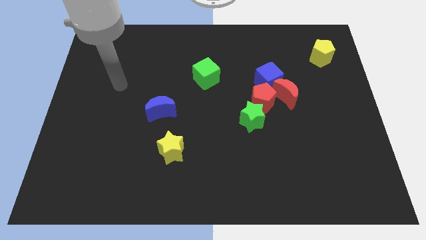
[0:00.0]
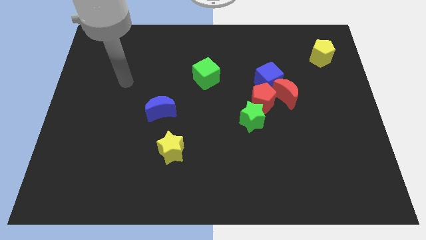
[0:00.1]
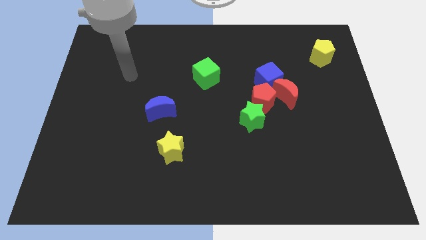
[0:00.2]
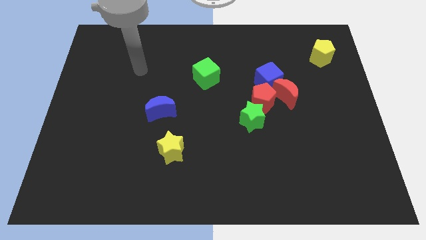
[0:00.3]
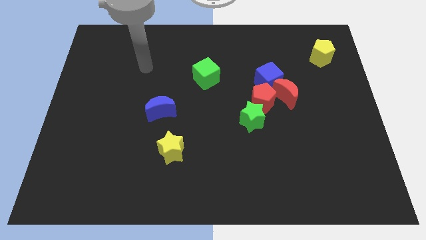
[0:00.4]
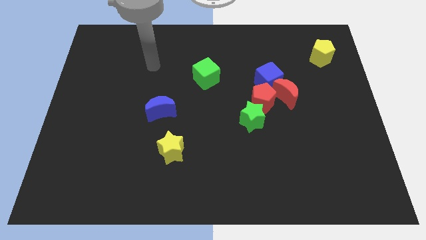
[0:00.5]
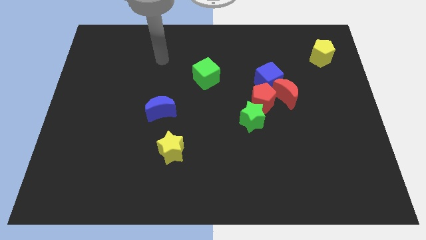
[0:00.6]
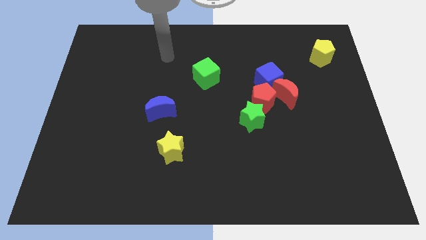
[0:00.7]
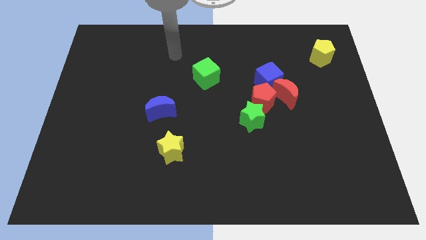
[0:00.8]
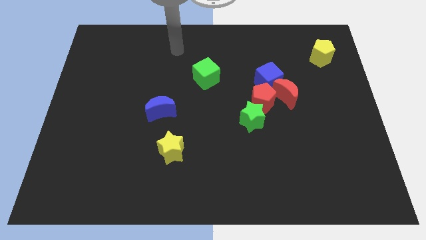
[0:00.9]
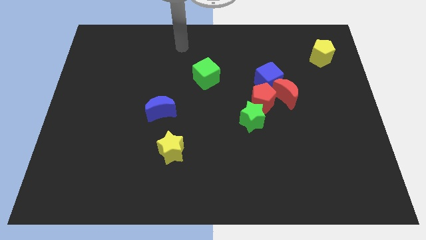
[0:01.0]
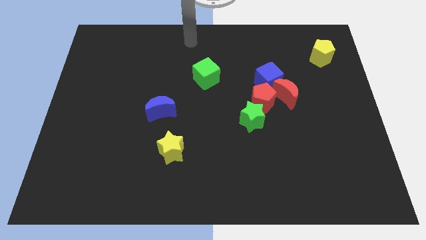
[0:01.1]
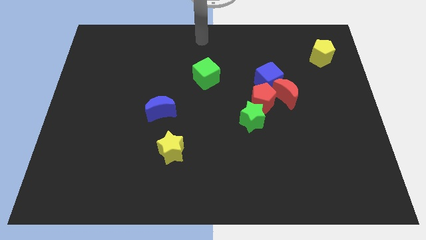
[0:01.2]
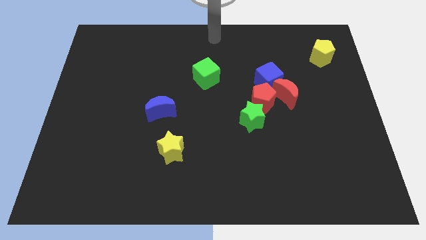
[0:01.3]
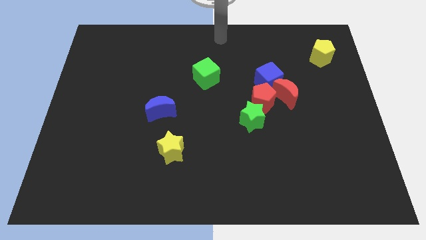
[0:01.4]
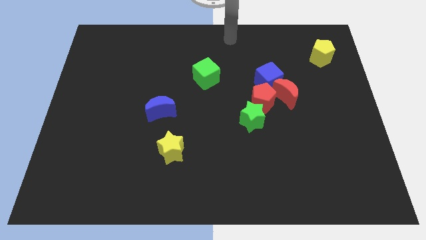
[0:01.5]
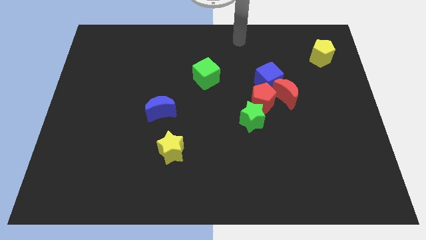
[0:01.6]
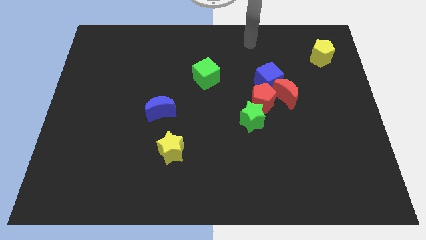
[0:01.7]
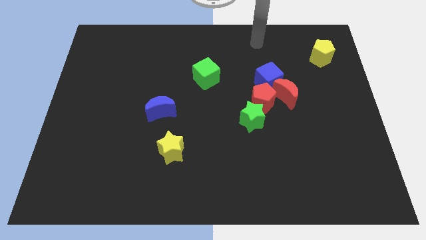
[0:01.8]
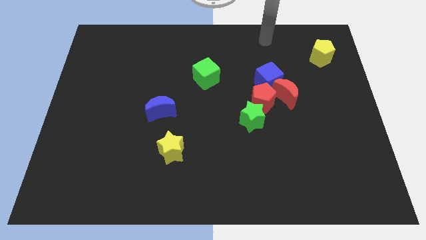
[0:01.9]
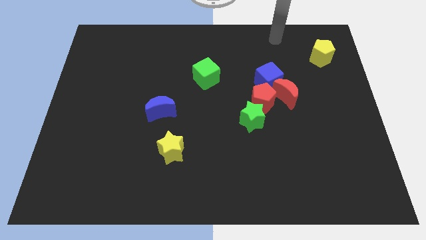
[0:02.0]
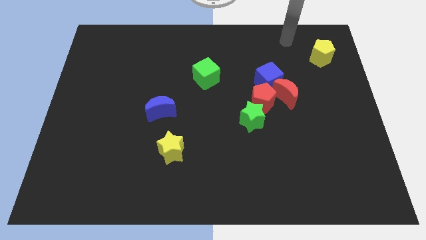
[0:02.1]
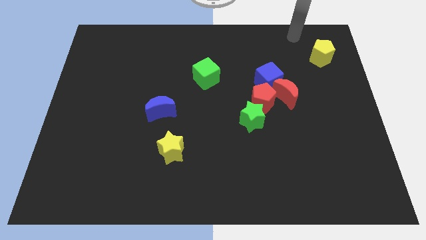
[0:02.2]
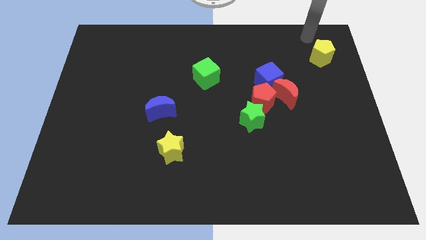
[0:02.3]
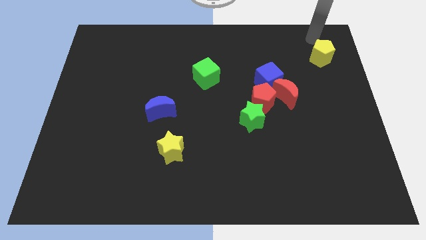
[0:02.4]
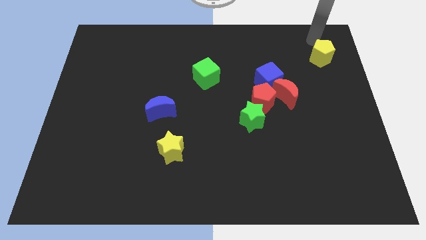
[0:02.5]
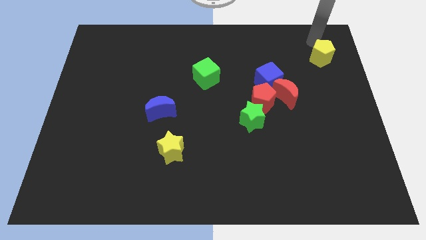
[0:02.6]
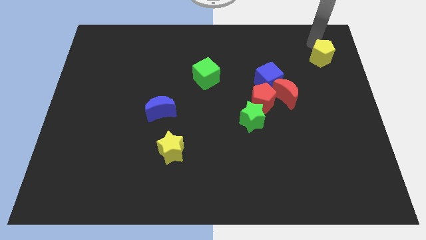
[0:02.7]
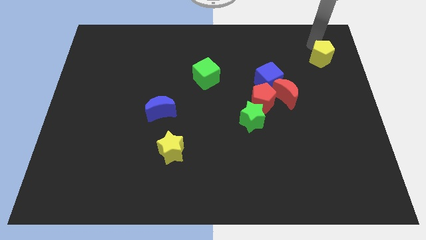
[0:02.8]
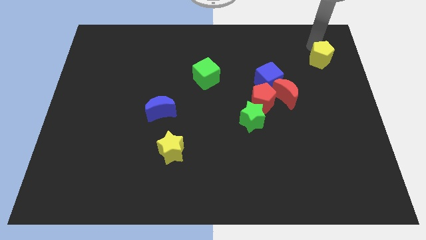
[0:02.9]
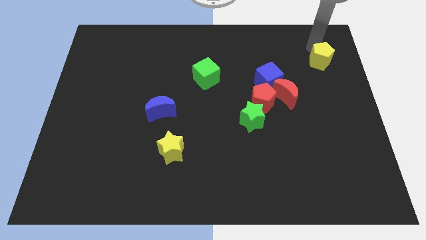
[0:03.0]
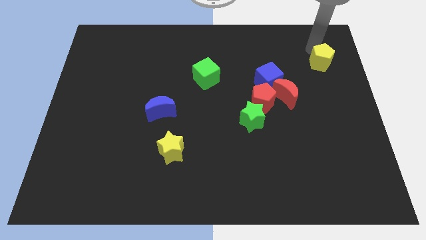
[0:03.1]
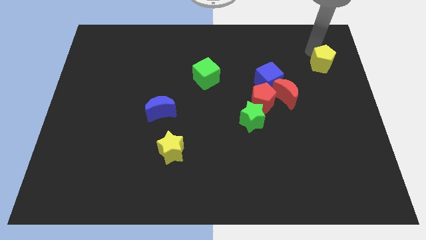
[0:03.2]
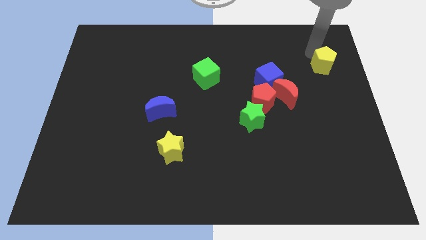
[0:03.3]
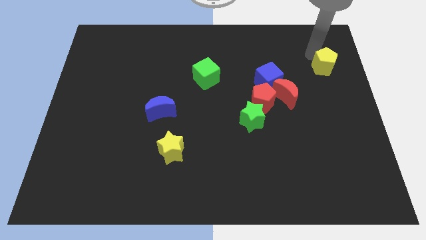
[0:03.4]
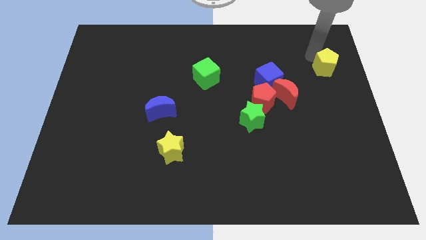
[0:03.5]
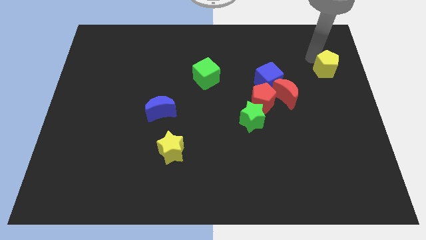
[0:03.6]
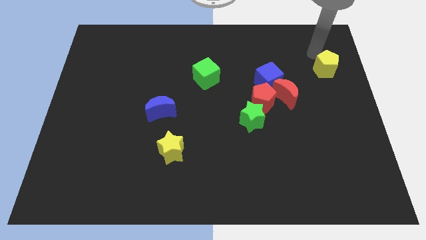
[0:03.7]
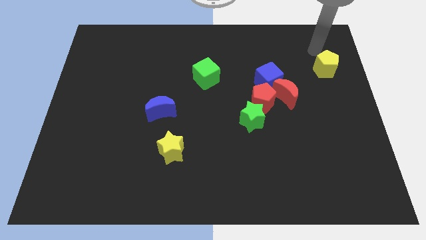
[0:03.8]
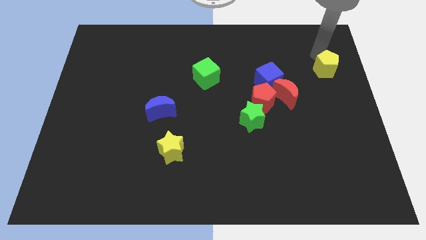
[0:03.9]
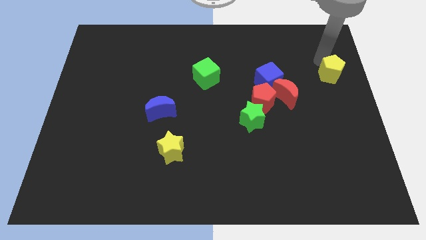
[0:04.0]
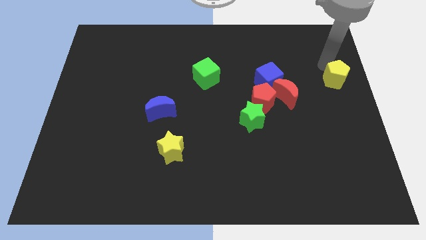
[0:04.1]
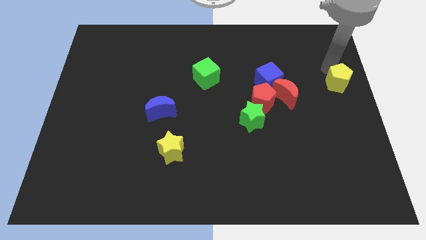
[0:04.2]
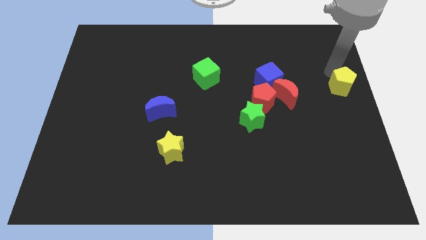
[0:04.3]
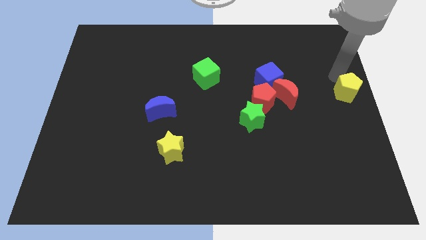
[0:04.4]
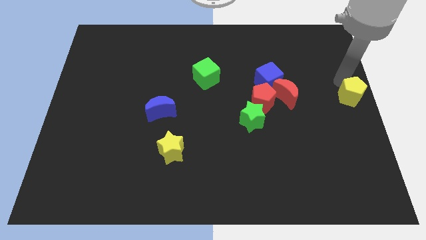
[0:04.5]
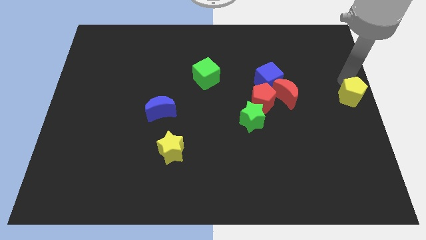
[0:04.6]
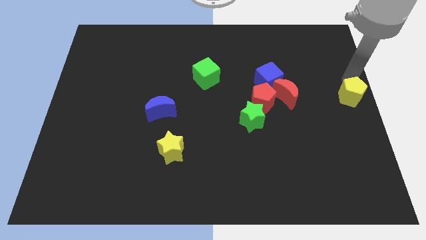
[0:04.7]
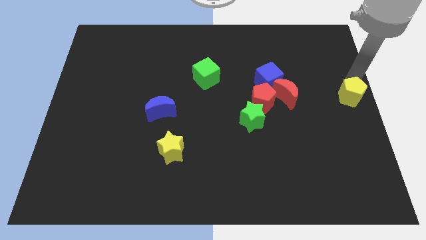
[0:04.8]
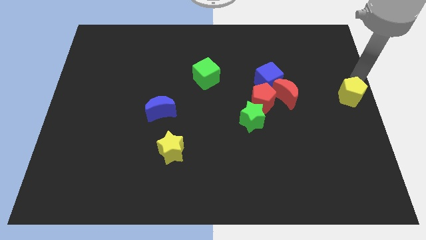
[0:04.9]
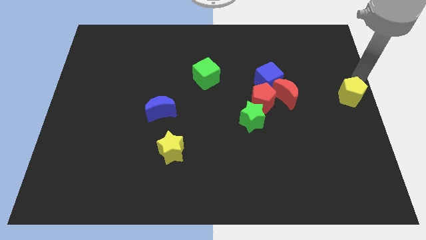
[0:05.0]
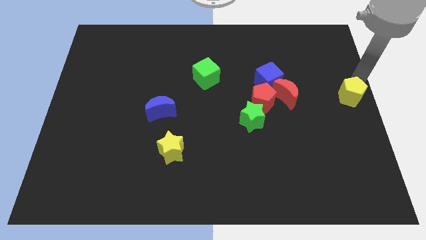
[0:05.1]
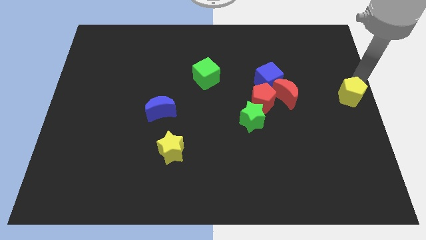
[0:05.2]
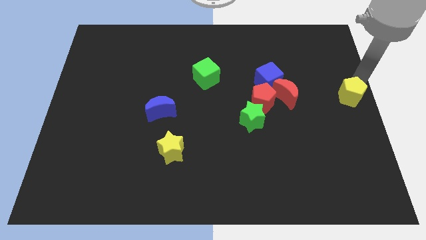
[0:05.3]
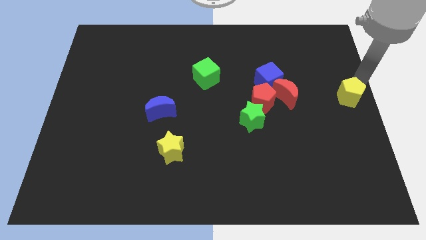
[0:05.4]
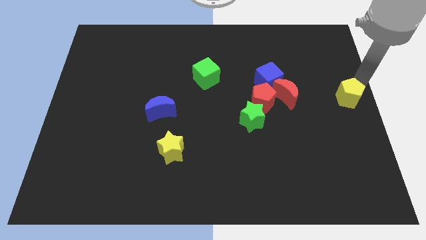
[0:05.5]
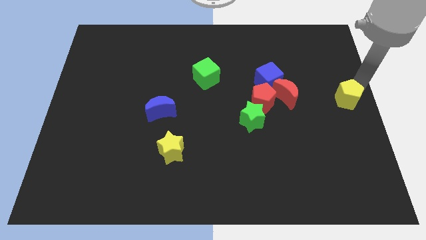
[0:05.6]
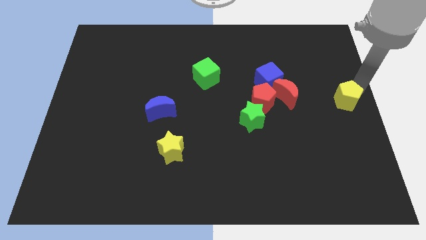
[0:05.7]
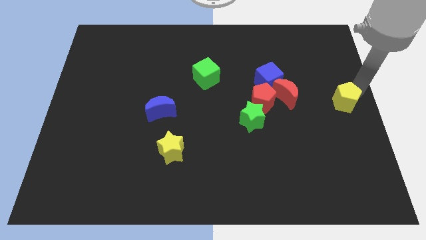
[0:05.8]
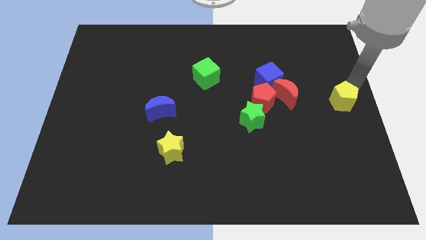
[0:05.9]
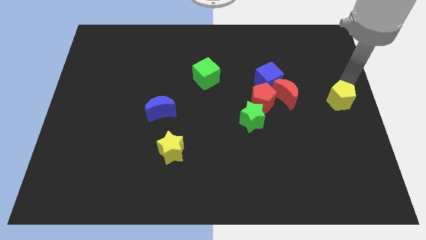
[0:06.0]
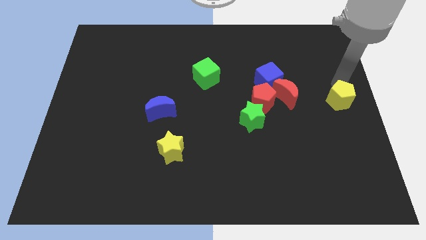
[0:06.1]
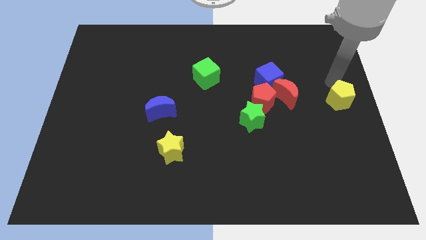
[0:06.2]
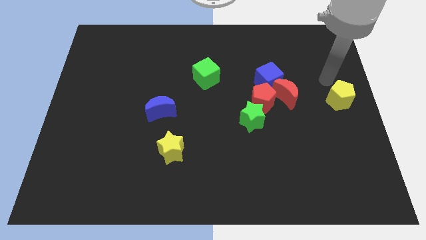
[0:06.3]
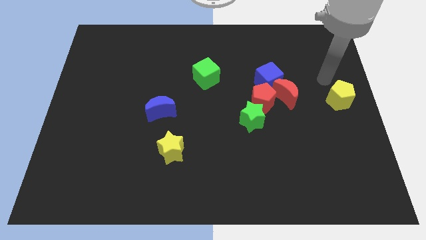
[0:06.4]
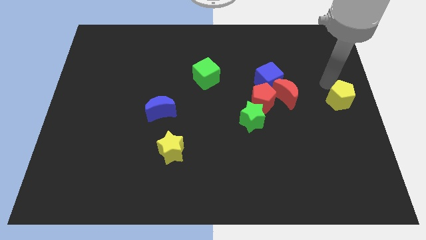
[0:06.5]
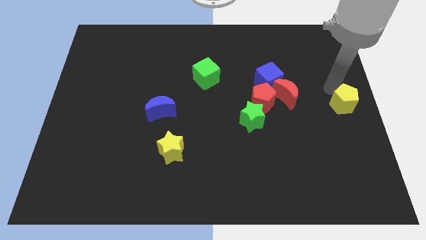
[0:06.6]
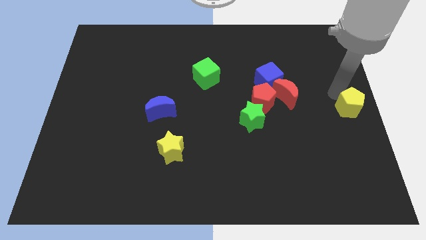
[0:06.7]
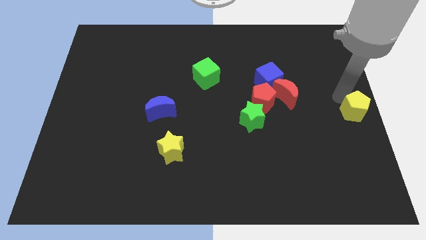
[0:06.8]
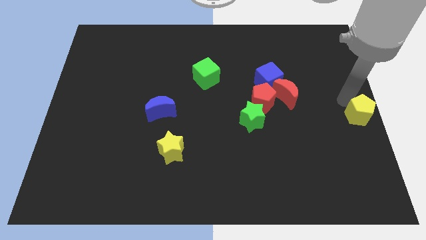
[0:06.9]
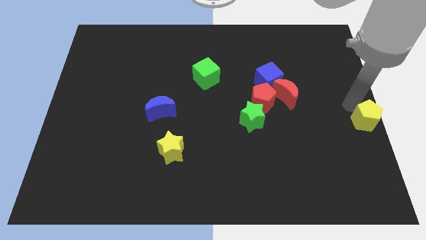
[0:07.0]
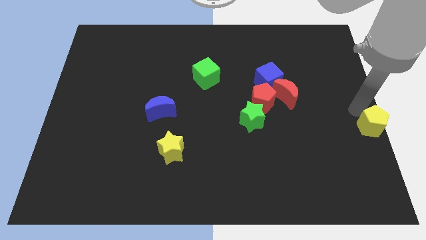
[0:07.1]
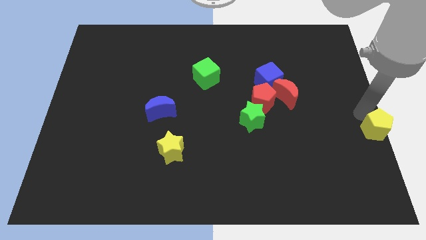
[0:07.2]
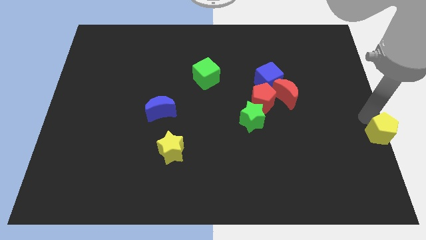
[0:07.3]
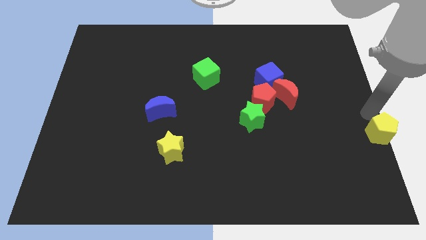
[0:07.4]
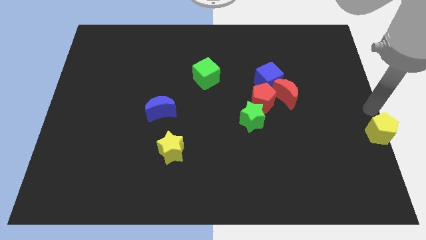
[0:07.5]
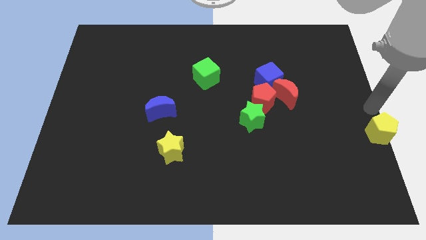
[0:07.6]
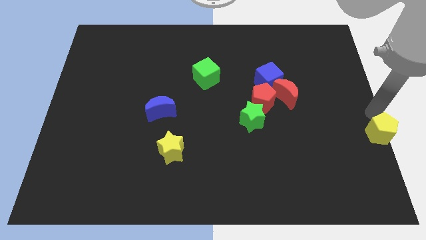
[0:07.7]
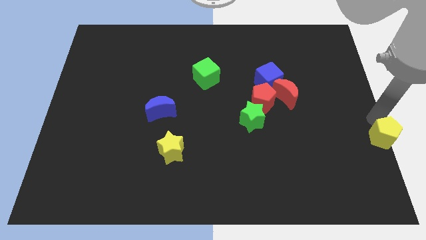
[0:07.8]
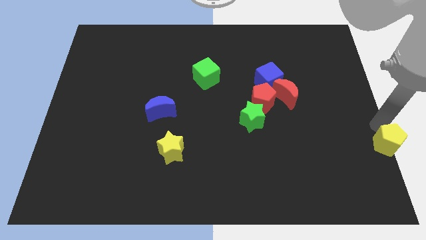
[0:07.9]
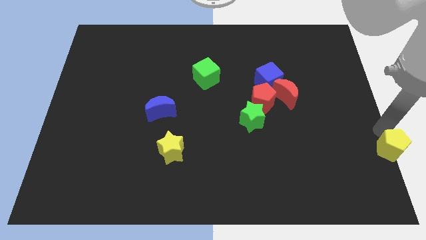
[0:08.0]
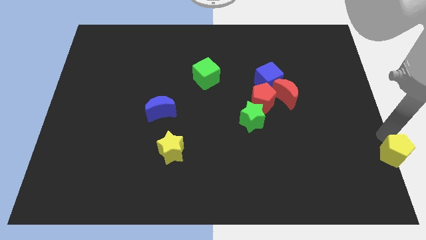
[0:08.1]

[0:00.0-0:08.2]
slide the yellow pentagon to the bottom right corner
